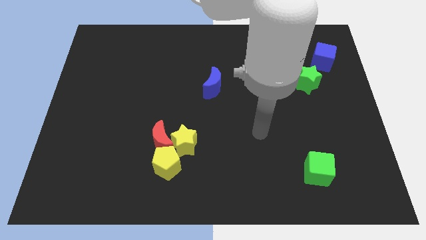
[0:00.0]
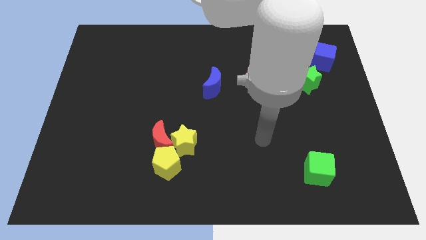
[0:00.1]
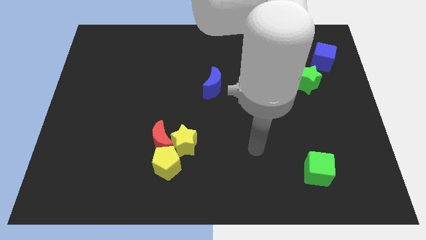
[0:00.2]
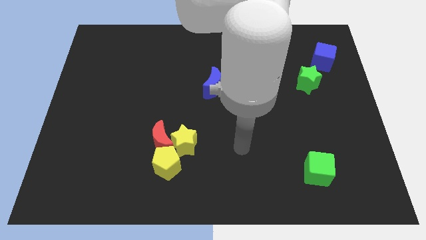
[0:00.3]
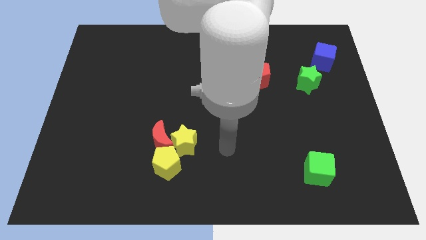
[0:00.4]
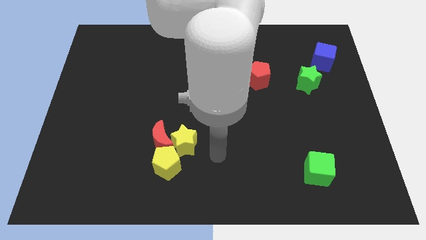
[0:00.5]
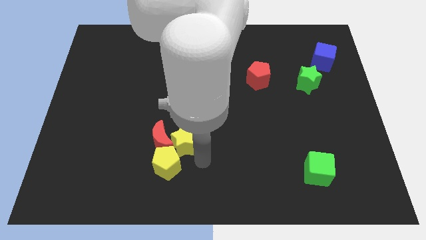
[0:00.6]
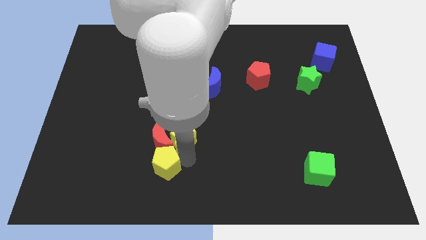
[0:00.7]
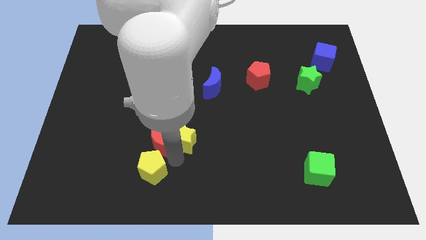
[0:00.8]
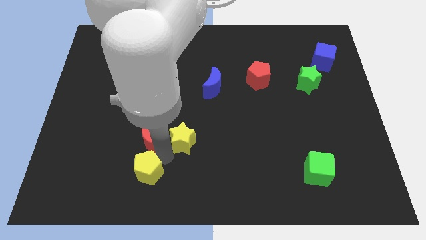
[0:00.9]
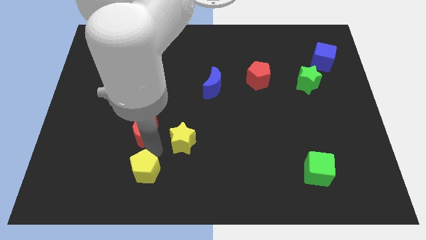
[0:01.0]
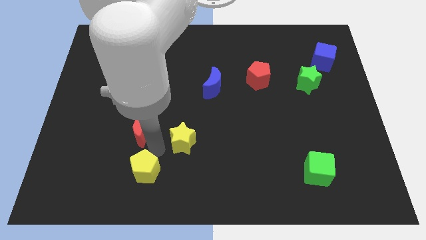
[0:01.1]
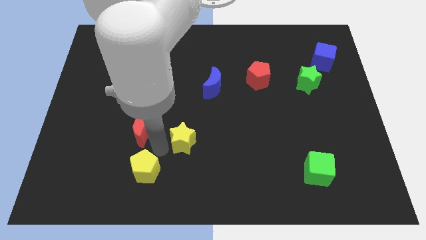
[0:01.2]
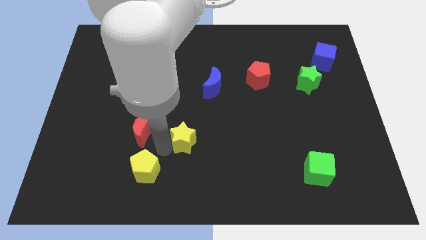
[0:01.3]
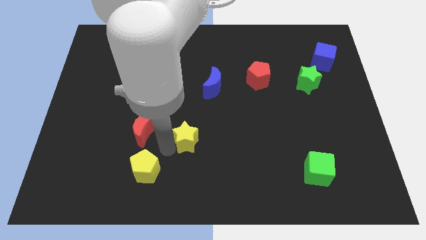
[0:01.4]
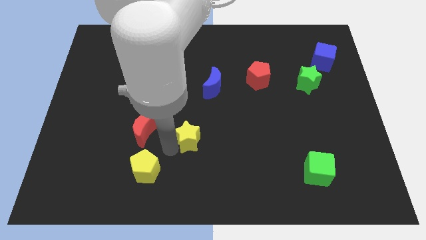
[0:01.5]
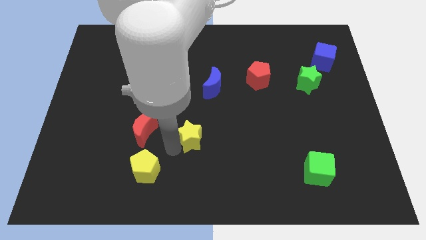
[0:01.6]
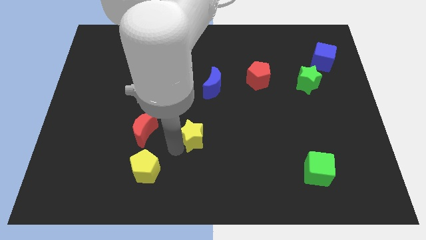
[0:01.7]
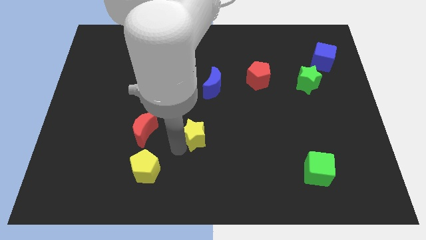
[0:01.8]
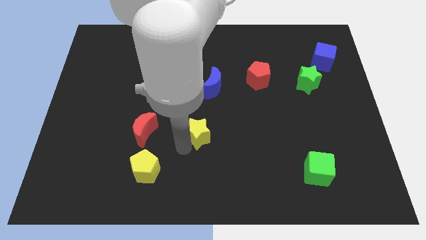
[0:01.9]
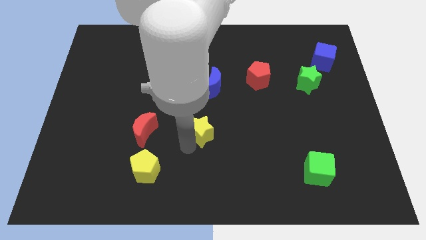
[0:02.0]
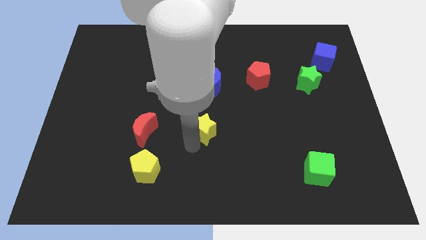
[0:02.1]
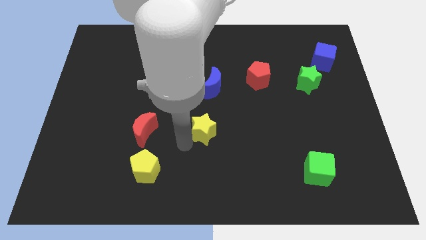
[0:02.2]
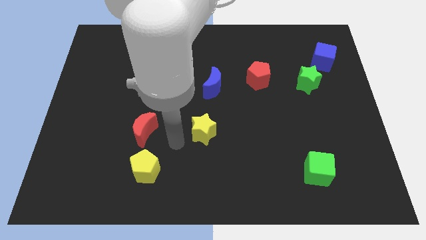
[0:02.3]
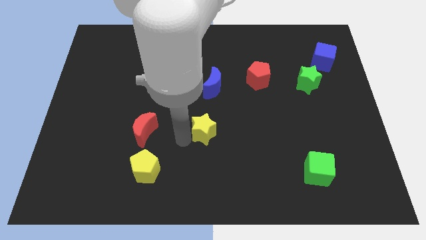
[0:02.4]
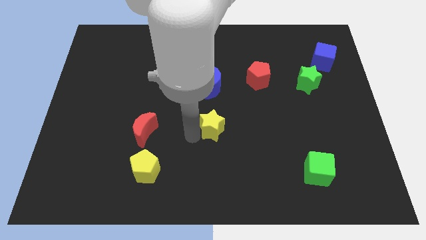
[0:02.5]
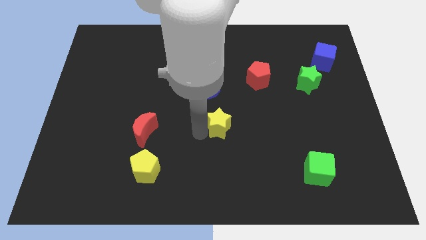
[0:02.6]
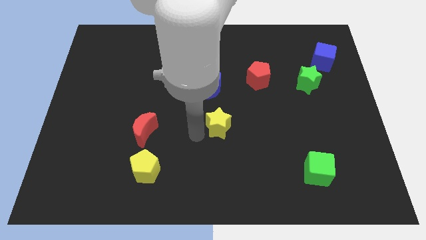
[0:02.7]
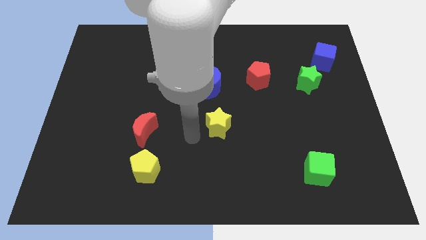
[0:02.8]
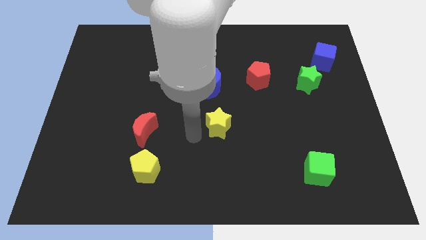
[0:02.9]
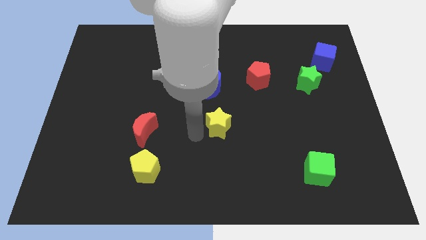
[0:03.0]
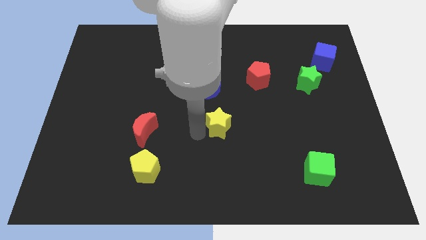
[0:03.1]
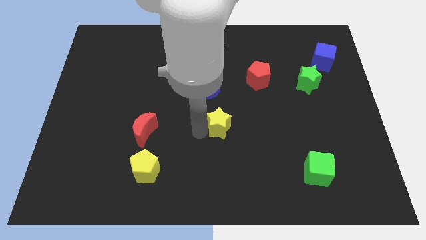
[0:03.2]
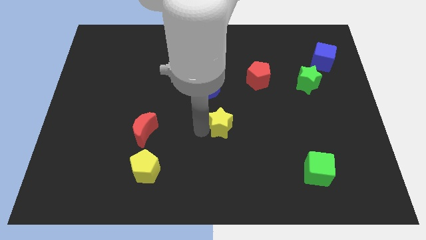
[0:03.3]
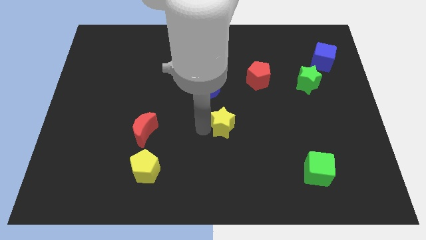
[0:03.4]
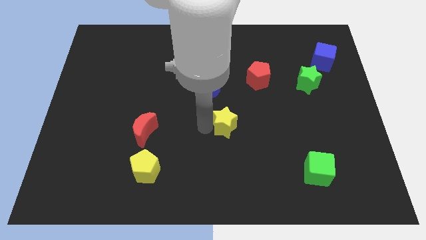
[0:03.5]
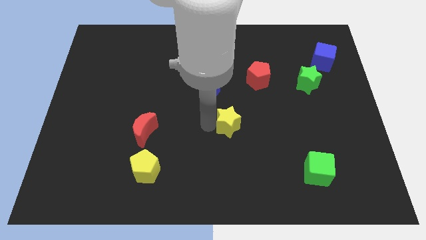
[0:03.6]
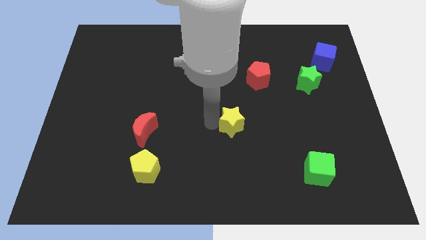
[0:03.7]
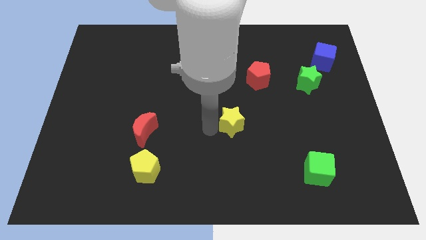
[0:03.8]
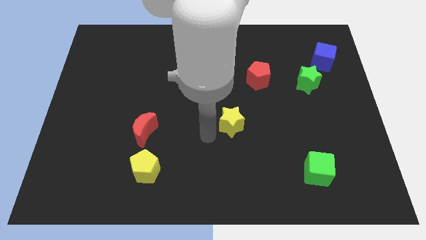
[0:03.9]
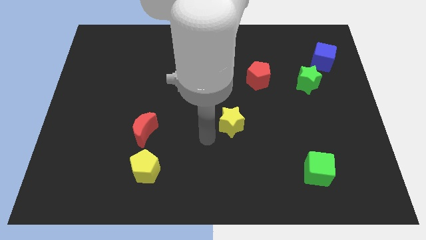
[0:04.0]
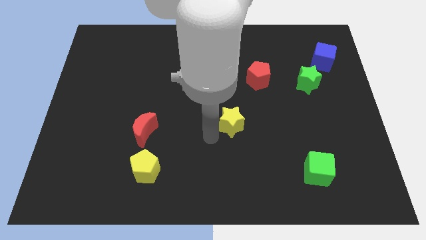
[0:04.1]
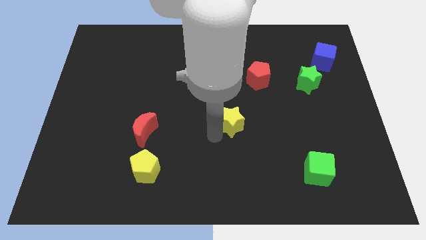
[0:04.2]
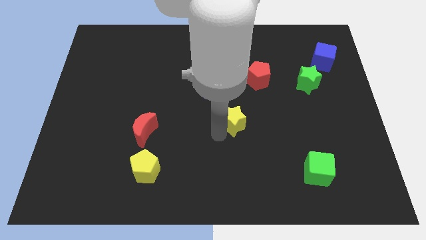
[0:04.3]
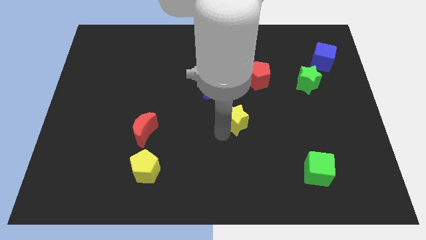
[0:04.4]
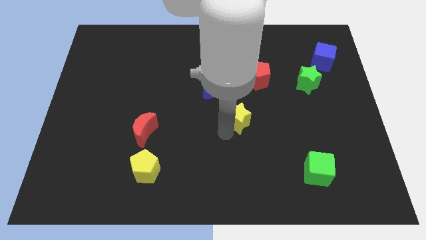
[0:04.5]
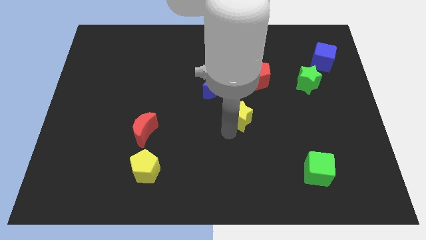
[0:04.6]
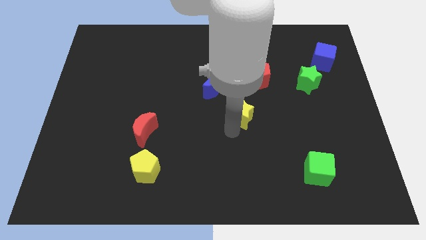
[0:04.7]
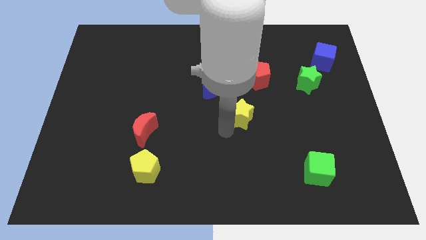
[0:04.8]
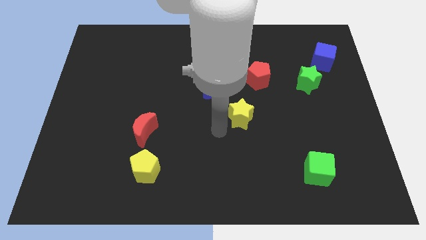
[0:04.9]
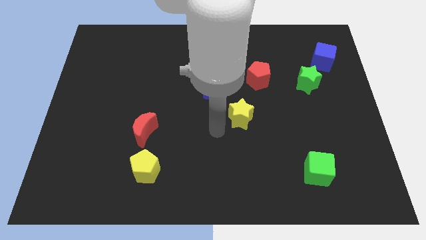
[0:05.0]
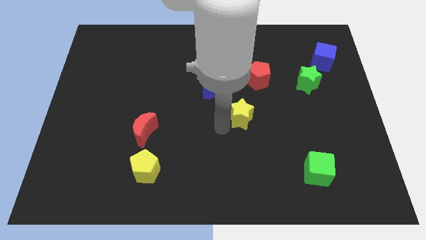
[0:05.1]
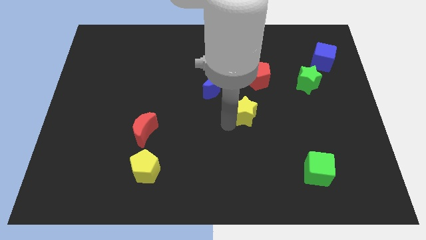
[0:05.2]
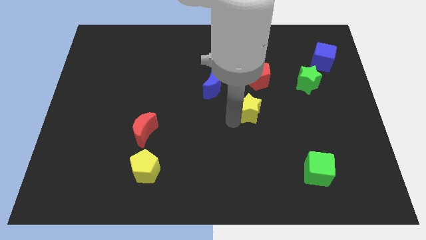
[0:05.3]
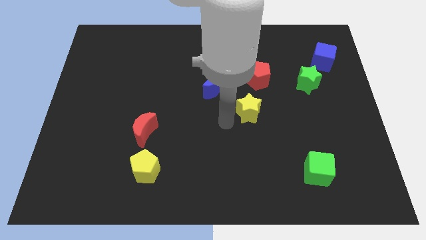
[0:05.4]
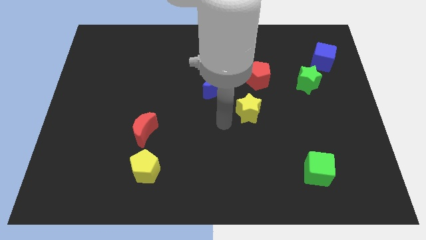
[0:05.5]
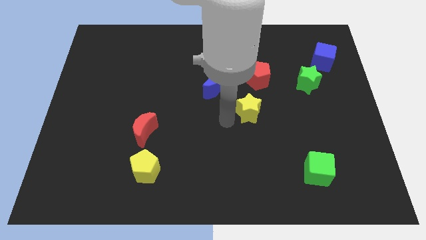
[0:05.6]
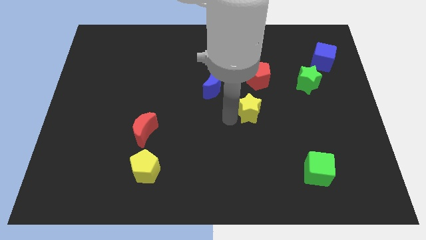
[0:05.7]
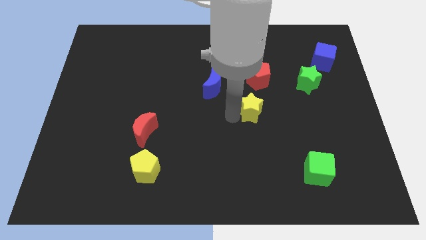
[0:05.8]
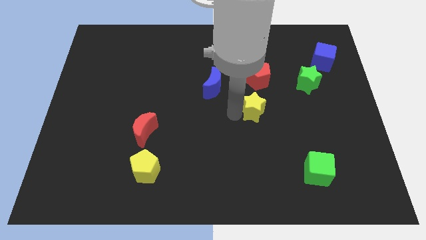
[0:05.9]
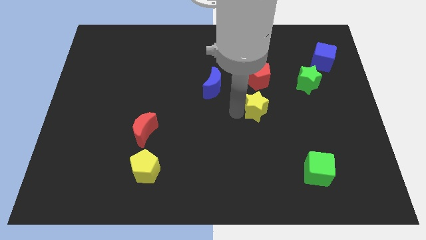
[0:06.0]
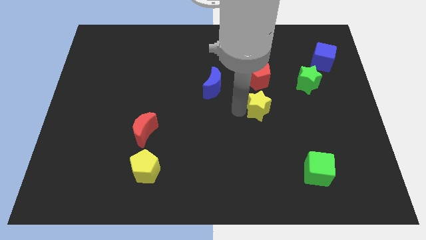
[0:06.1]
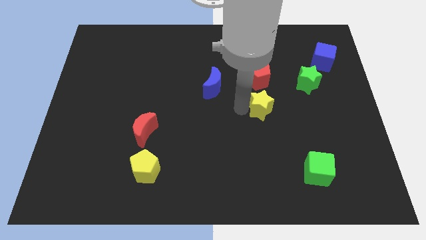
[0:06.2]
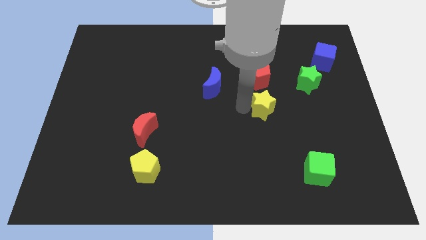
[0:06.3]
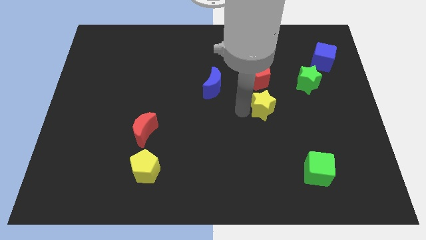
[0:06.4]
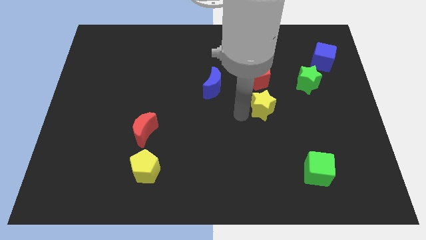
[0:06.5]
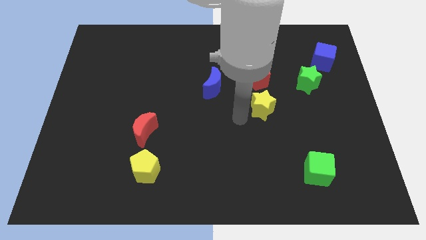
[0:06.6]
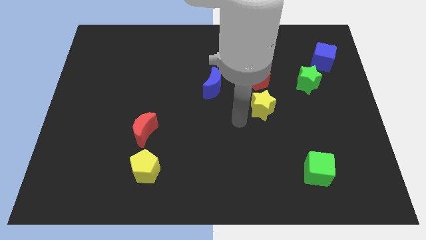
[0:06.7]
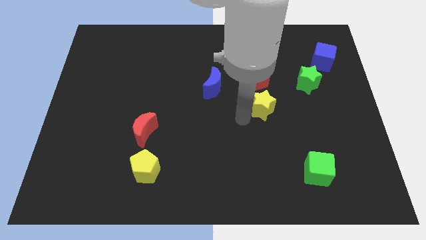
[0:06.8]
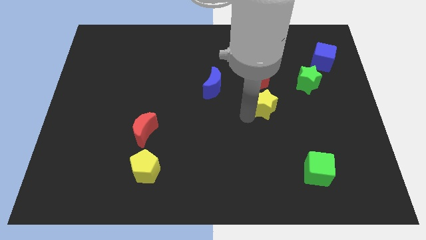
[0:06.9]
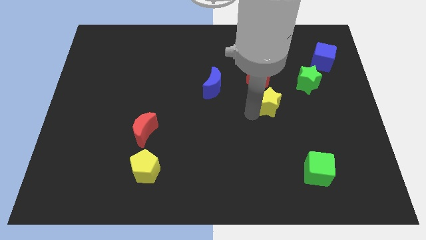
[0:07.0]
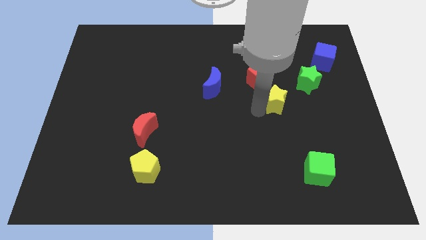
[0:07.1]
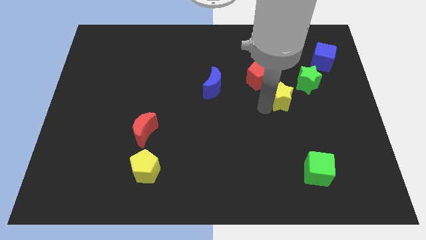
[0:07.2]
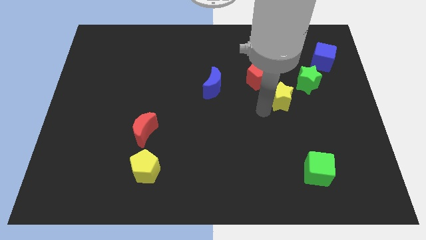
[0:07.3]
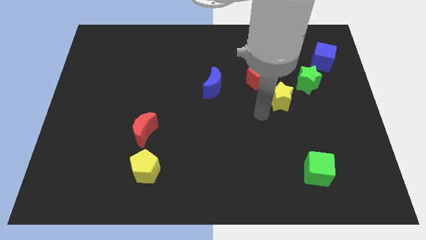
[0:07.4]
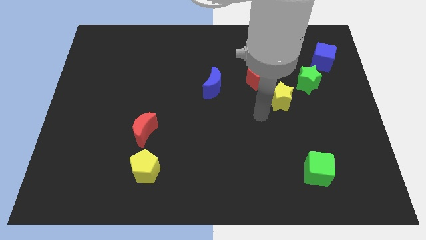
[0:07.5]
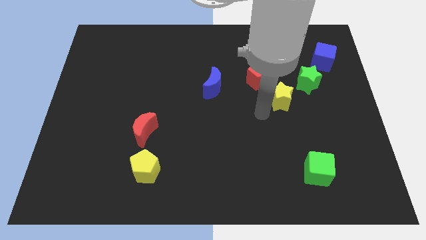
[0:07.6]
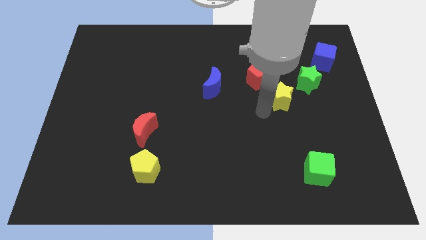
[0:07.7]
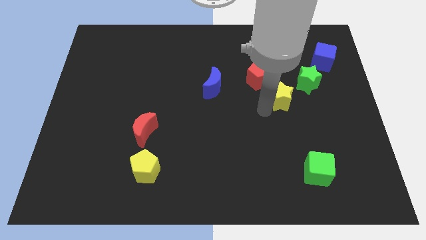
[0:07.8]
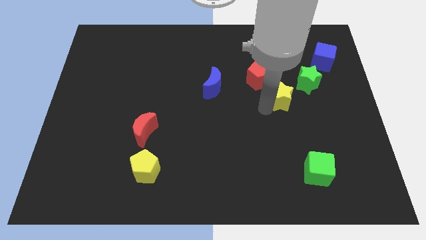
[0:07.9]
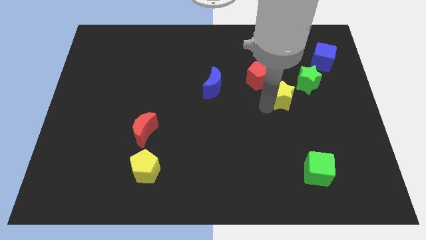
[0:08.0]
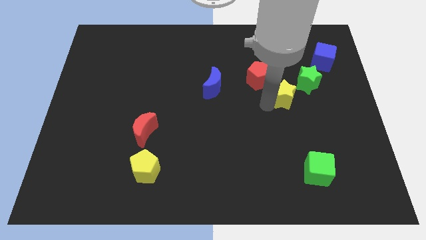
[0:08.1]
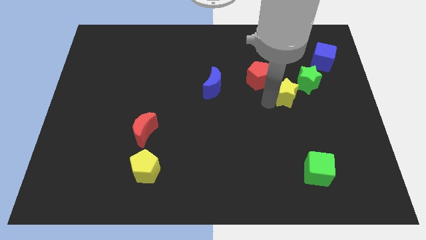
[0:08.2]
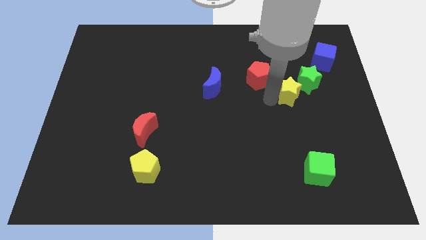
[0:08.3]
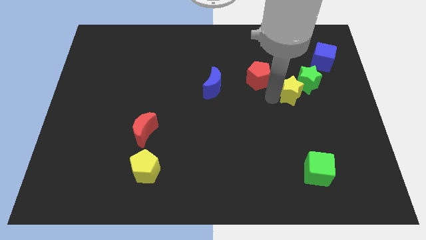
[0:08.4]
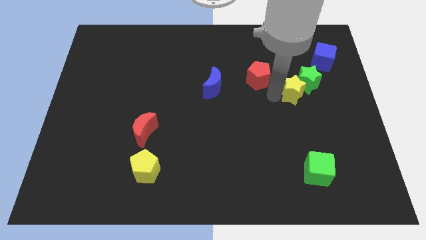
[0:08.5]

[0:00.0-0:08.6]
move the yellow star close to the green star
